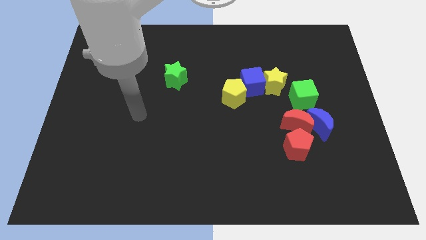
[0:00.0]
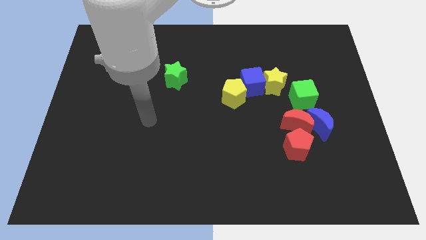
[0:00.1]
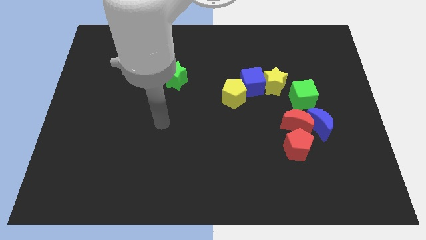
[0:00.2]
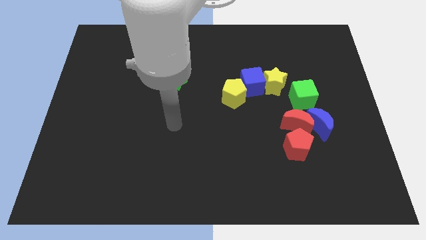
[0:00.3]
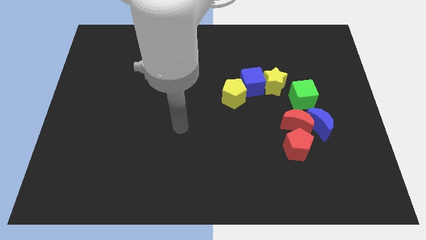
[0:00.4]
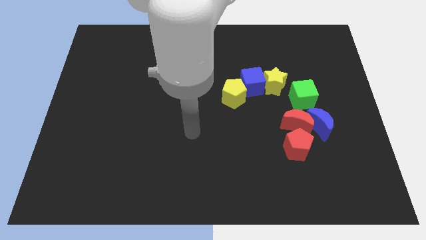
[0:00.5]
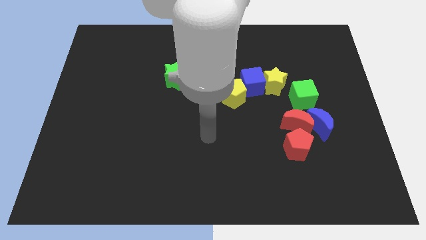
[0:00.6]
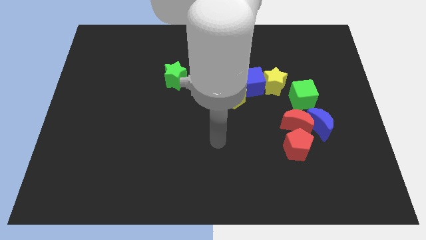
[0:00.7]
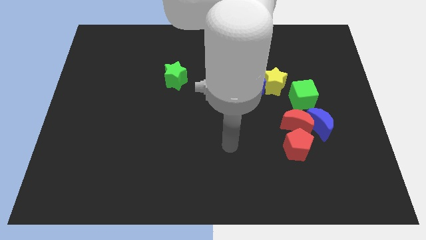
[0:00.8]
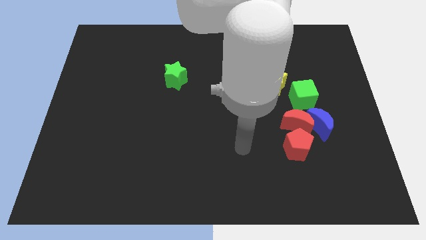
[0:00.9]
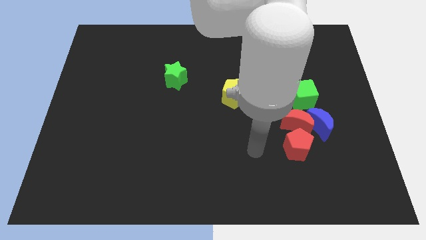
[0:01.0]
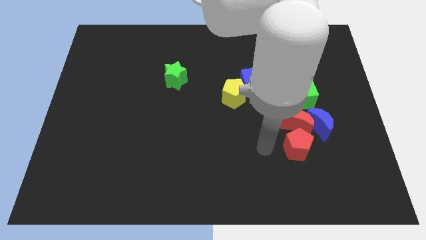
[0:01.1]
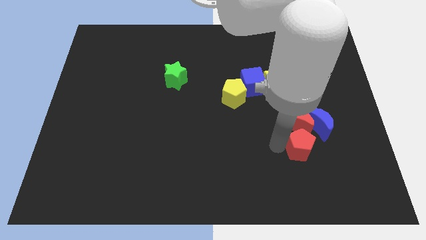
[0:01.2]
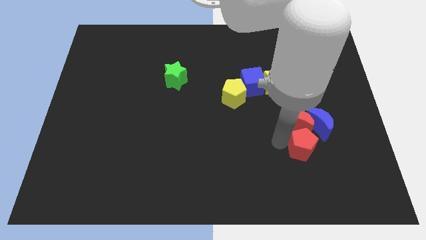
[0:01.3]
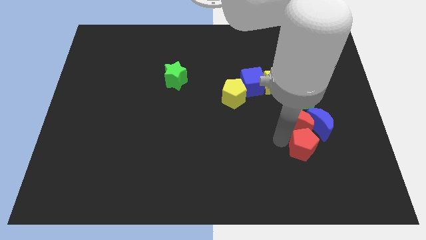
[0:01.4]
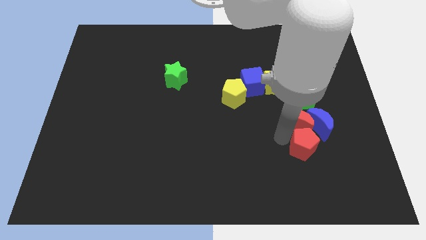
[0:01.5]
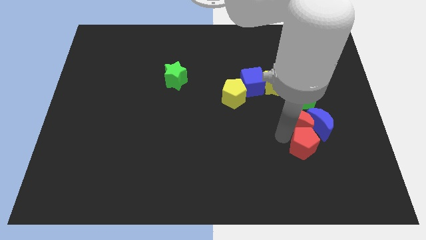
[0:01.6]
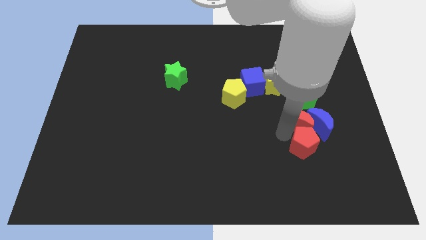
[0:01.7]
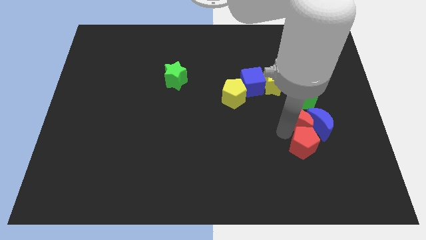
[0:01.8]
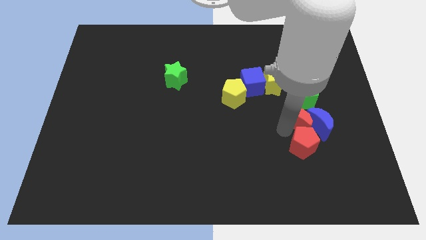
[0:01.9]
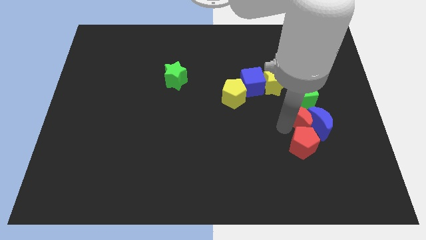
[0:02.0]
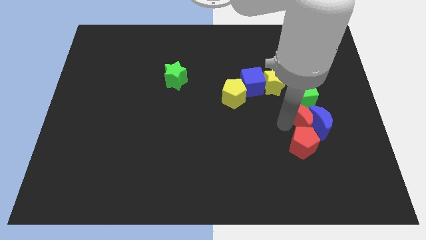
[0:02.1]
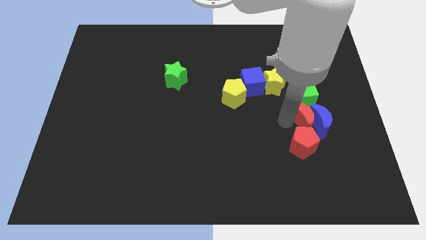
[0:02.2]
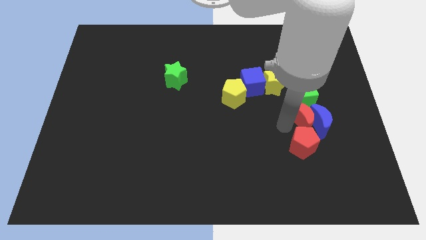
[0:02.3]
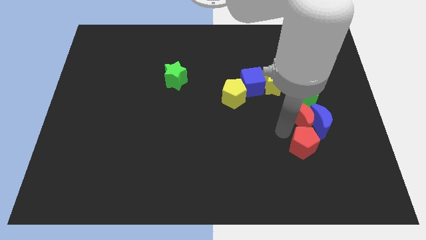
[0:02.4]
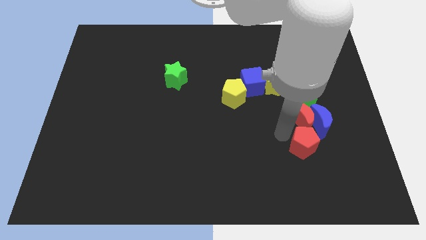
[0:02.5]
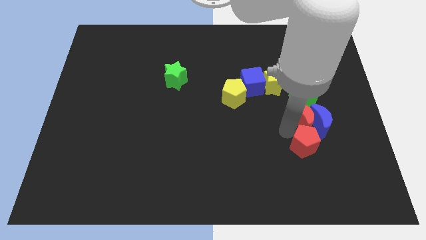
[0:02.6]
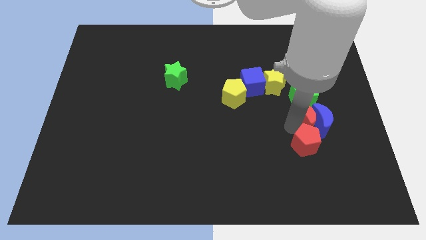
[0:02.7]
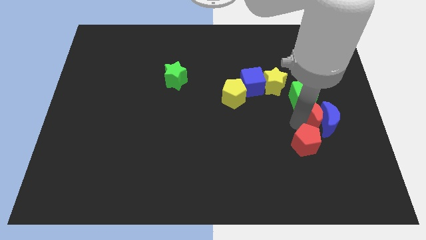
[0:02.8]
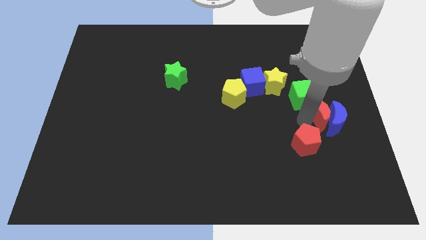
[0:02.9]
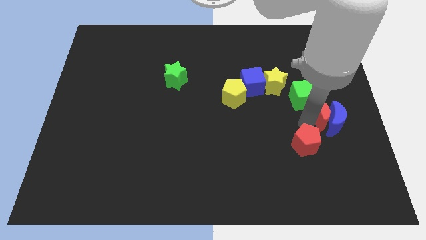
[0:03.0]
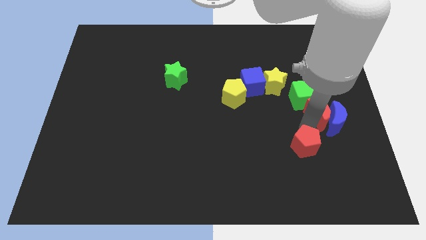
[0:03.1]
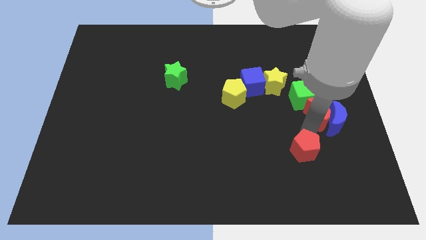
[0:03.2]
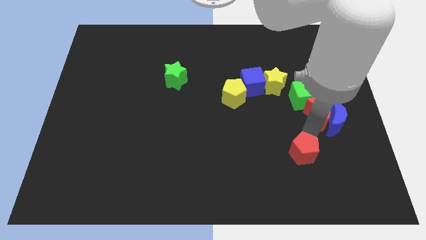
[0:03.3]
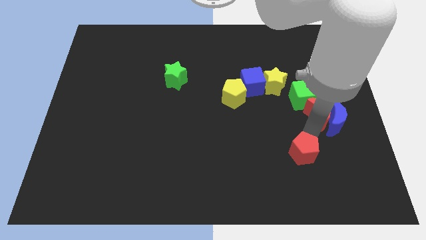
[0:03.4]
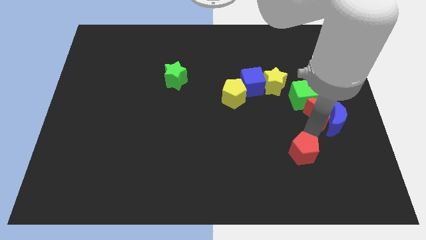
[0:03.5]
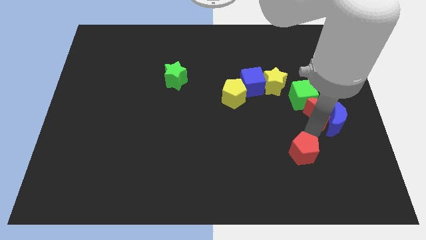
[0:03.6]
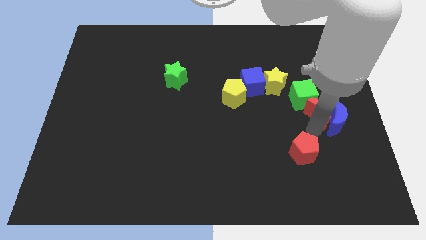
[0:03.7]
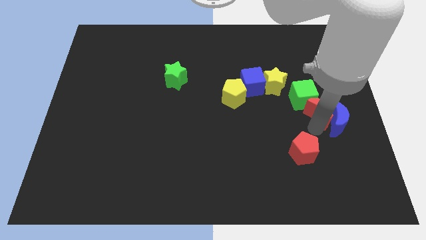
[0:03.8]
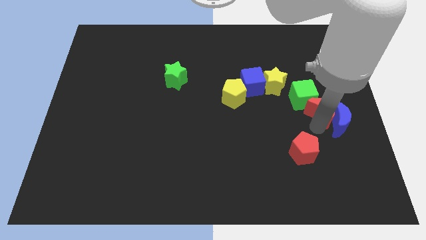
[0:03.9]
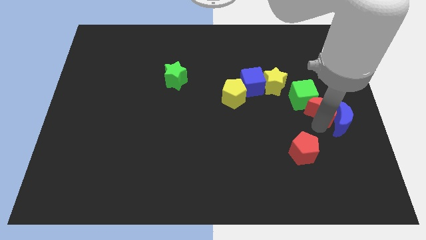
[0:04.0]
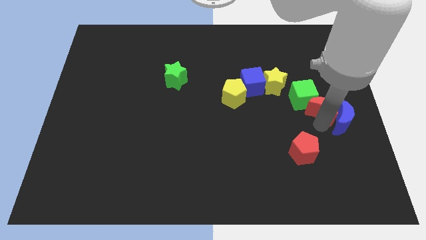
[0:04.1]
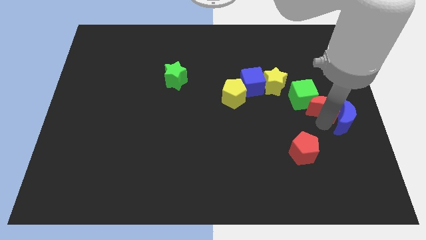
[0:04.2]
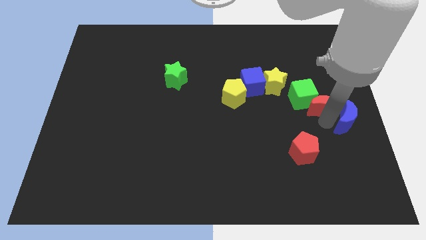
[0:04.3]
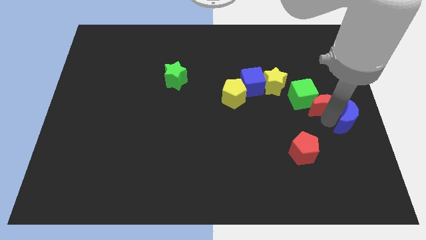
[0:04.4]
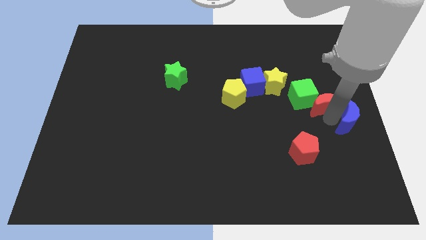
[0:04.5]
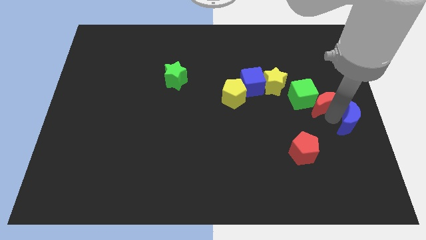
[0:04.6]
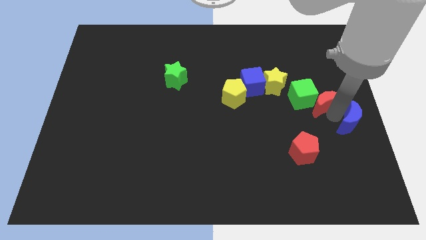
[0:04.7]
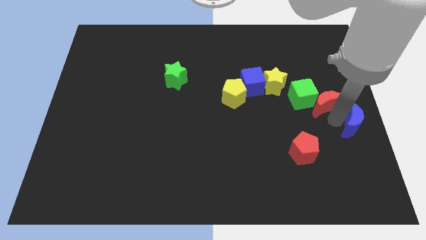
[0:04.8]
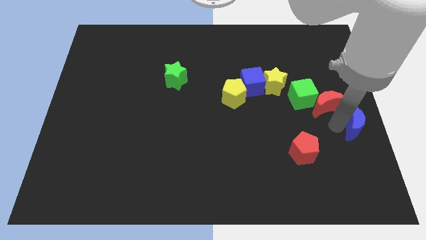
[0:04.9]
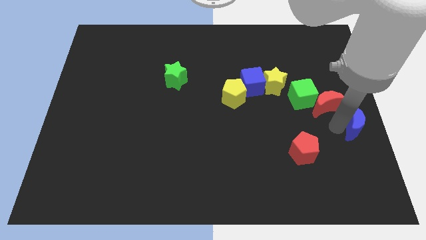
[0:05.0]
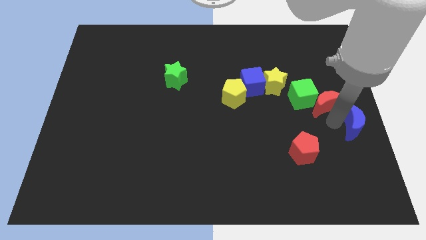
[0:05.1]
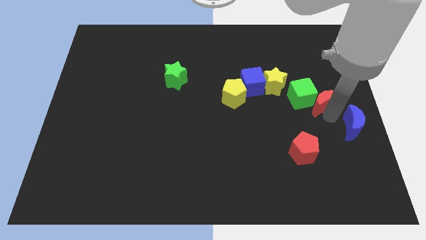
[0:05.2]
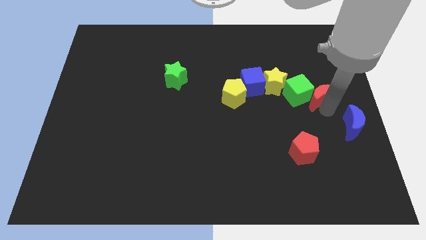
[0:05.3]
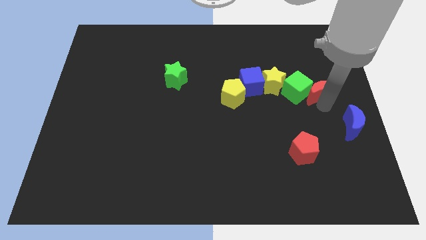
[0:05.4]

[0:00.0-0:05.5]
slightly move the red moon up

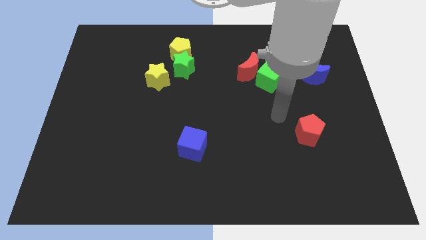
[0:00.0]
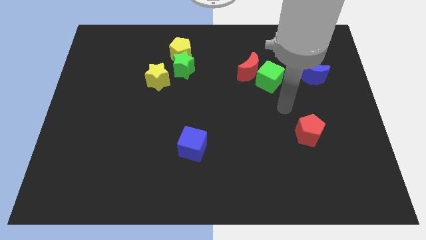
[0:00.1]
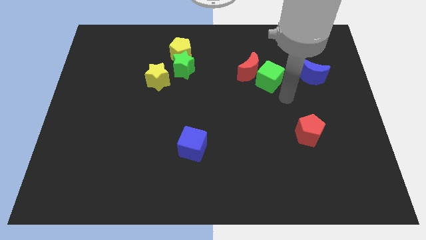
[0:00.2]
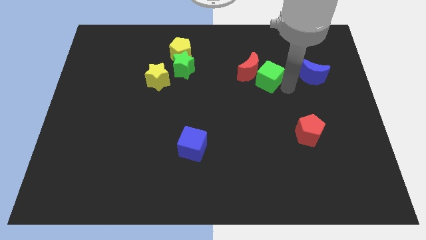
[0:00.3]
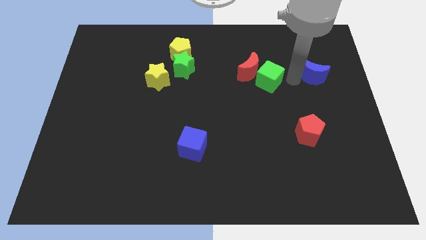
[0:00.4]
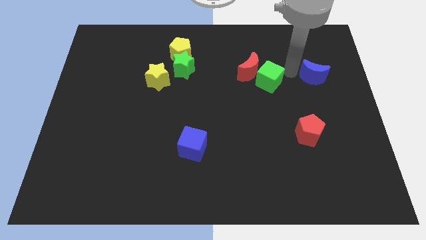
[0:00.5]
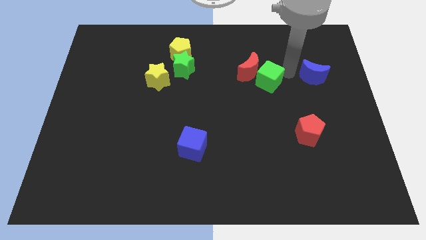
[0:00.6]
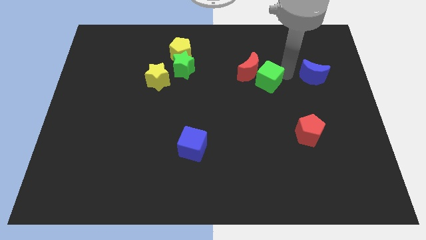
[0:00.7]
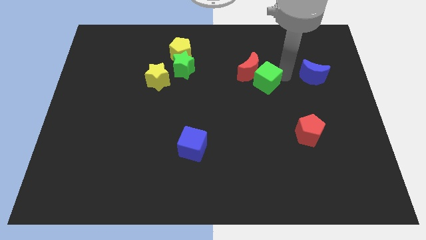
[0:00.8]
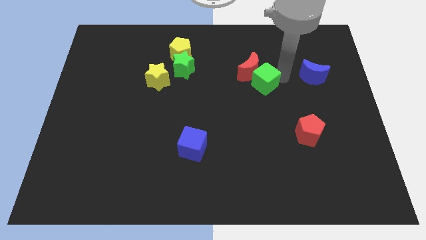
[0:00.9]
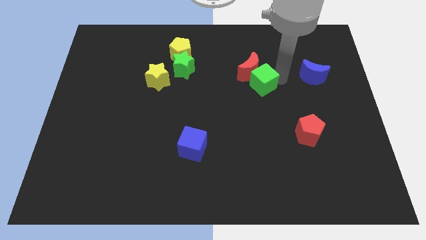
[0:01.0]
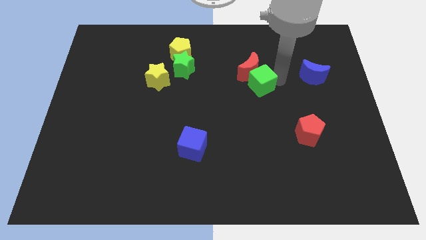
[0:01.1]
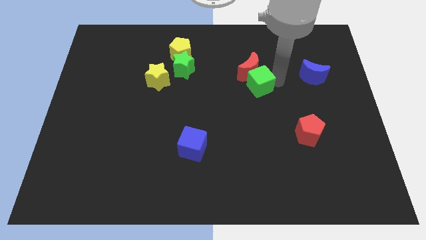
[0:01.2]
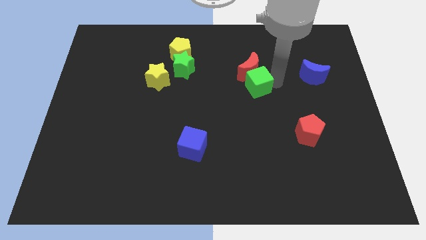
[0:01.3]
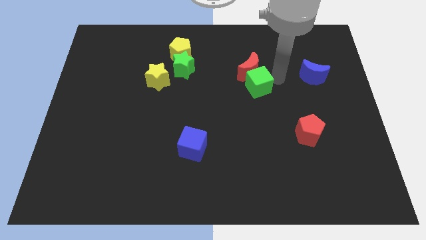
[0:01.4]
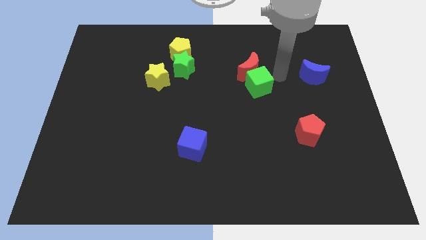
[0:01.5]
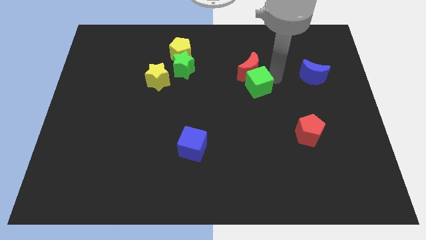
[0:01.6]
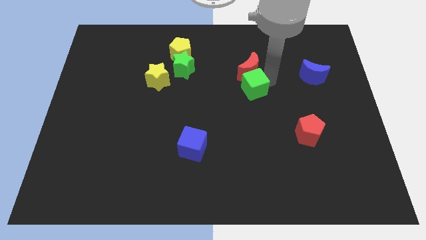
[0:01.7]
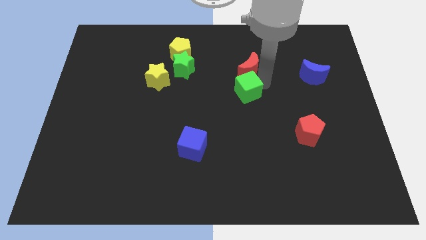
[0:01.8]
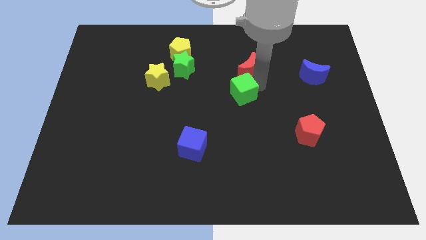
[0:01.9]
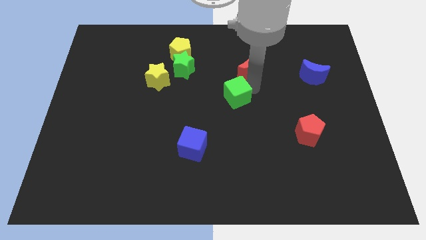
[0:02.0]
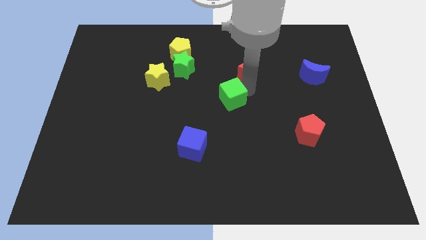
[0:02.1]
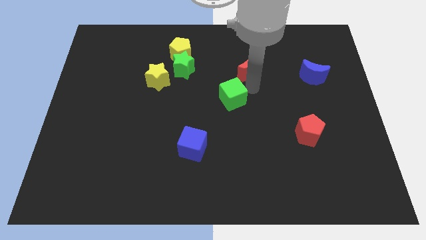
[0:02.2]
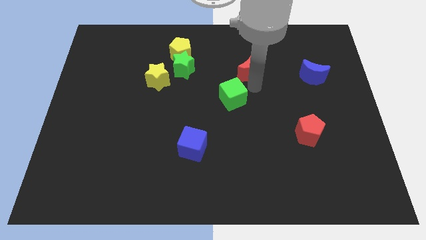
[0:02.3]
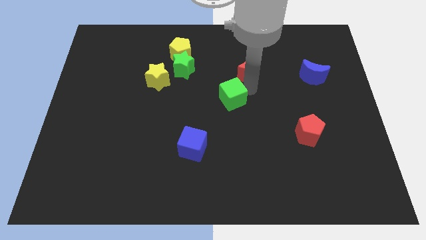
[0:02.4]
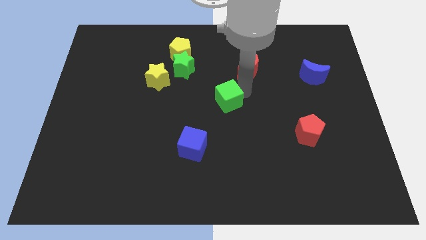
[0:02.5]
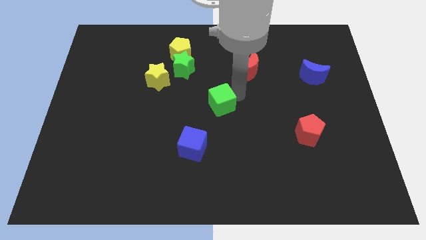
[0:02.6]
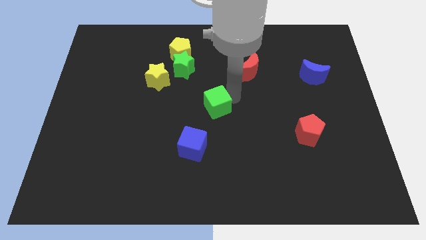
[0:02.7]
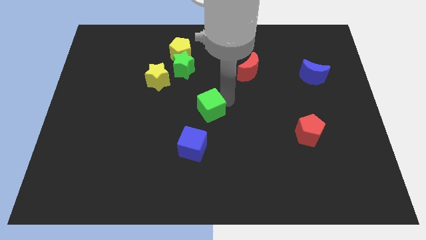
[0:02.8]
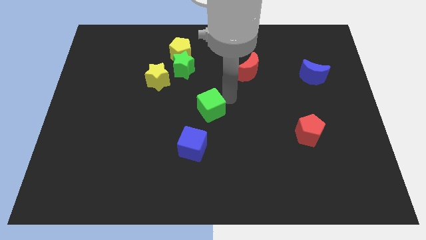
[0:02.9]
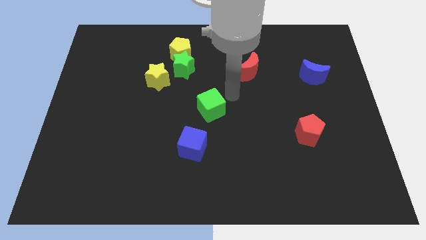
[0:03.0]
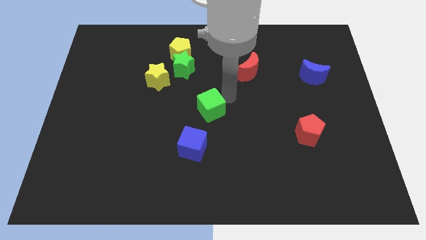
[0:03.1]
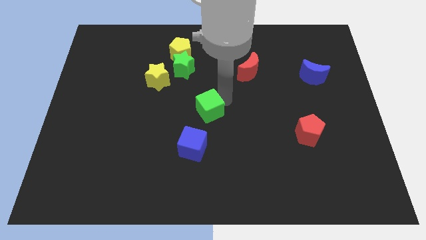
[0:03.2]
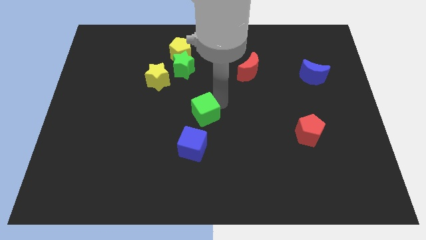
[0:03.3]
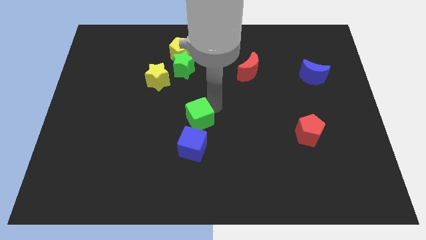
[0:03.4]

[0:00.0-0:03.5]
slide the green cube down and then to the left
